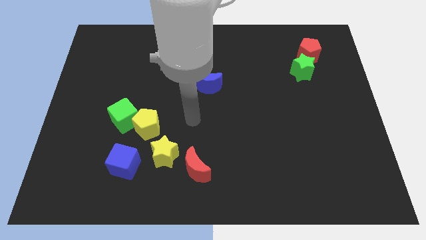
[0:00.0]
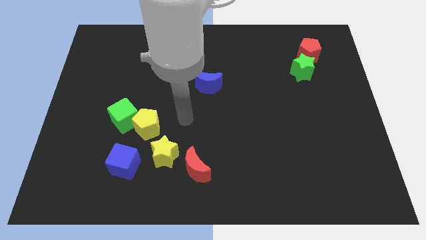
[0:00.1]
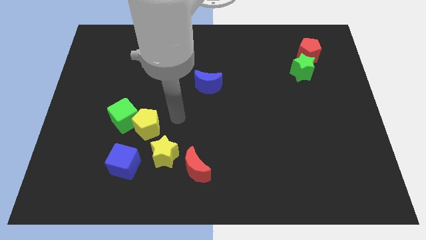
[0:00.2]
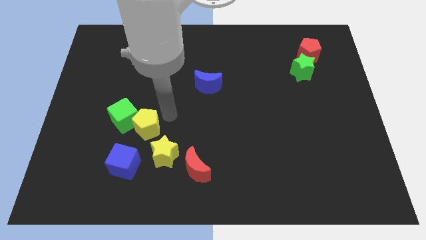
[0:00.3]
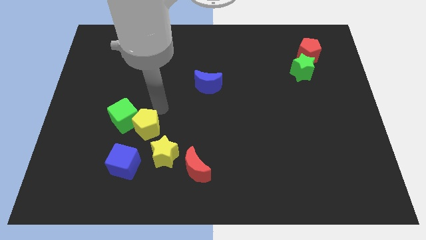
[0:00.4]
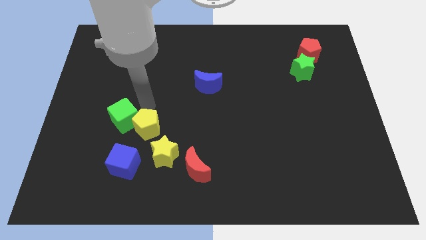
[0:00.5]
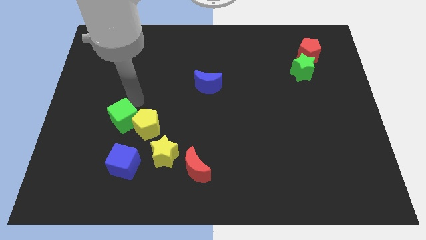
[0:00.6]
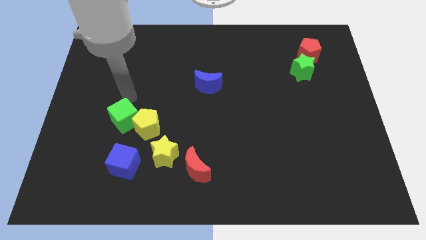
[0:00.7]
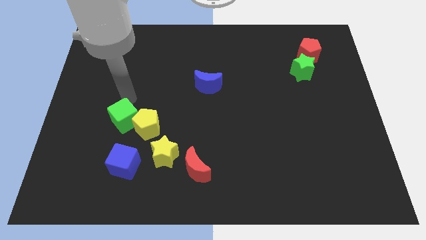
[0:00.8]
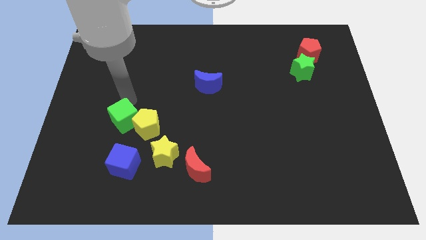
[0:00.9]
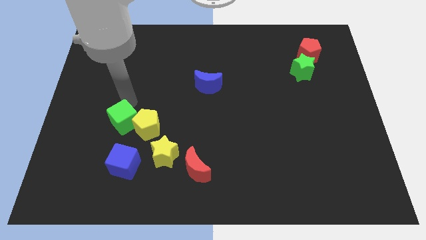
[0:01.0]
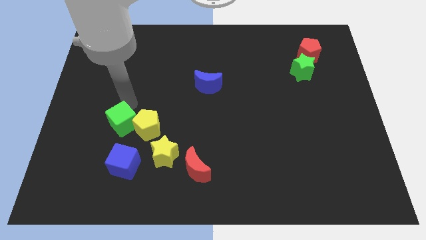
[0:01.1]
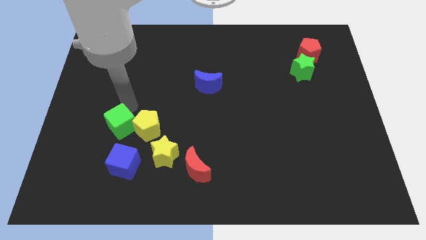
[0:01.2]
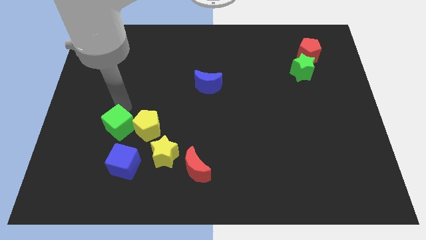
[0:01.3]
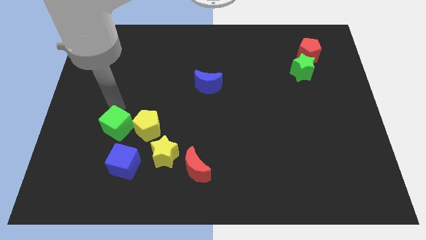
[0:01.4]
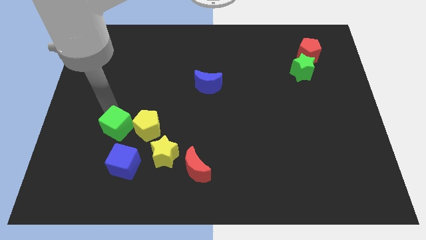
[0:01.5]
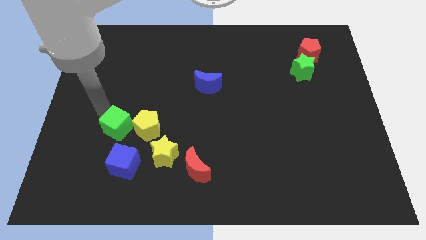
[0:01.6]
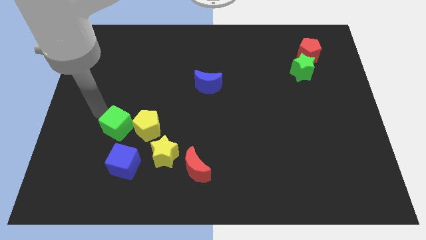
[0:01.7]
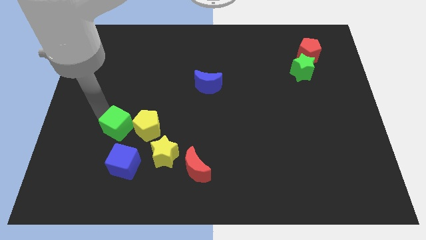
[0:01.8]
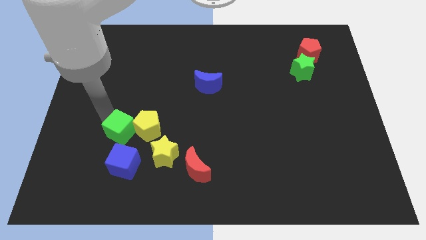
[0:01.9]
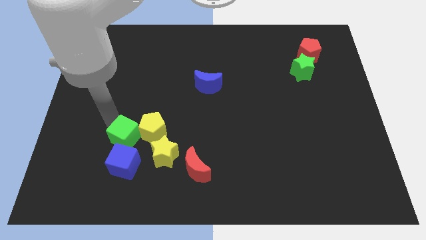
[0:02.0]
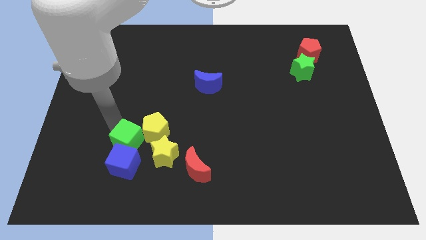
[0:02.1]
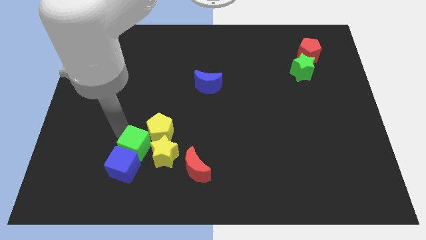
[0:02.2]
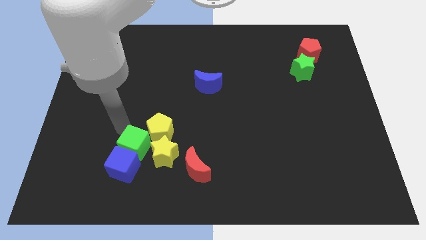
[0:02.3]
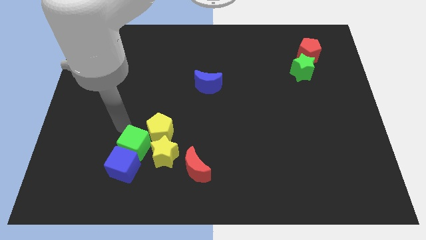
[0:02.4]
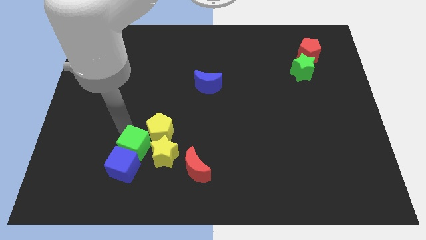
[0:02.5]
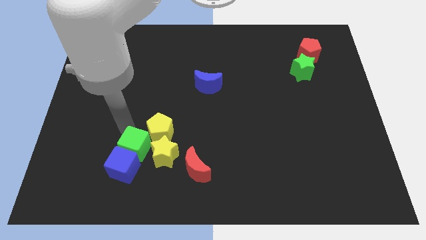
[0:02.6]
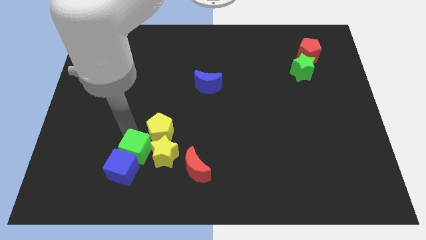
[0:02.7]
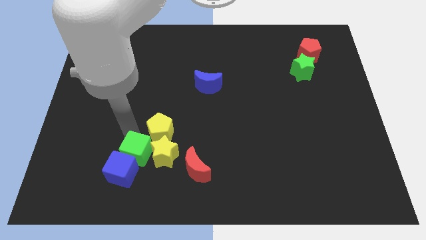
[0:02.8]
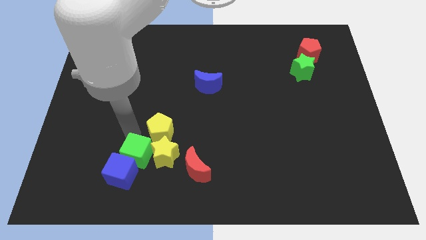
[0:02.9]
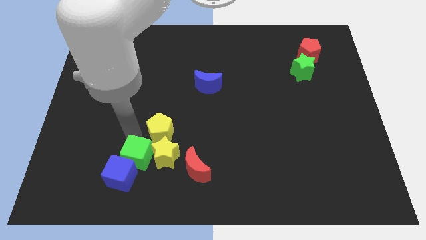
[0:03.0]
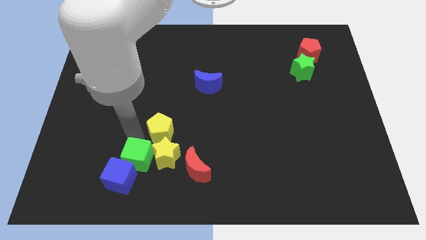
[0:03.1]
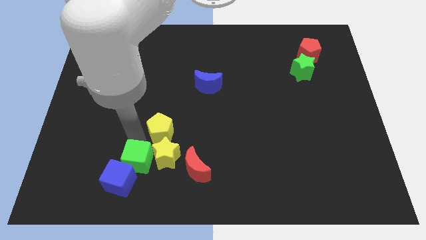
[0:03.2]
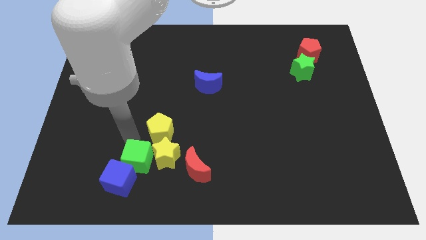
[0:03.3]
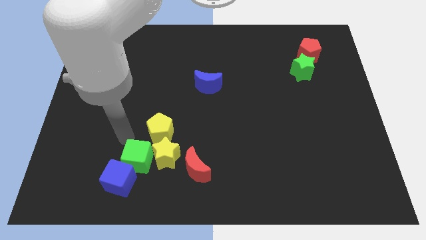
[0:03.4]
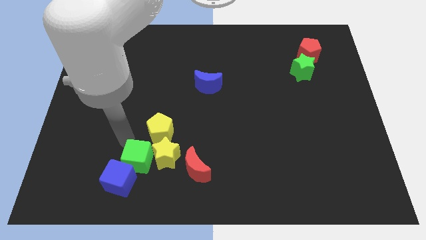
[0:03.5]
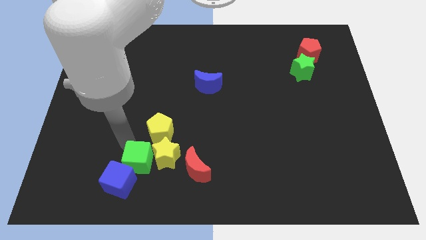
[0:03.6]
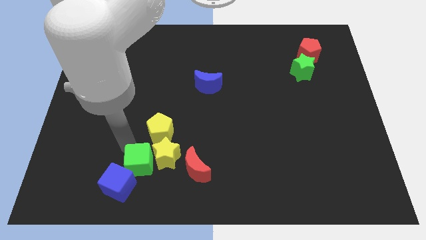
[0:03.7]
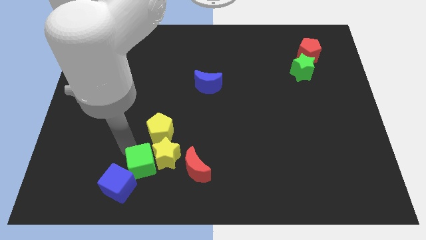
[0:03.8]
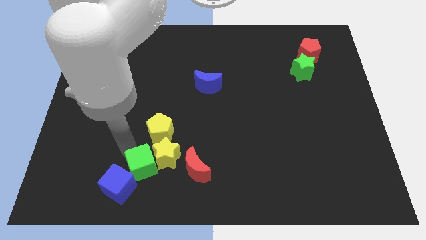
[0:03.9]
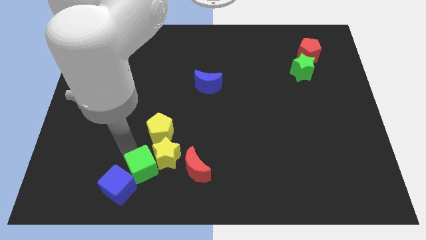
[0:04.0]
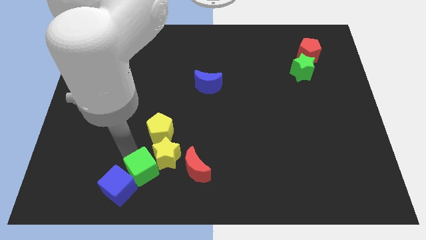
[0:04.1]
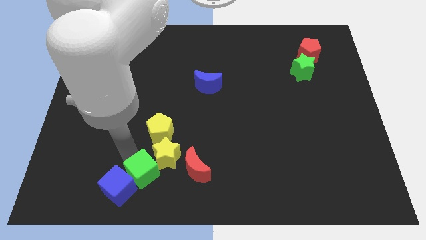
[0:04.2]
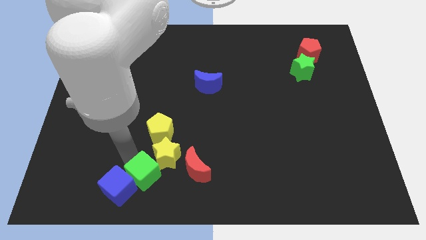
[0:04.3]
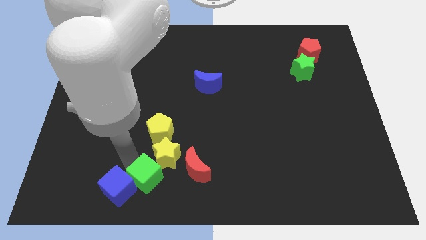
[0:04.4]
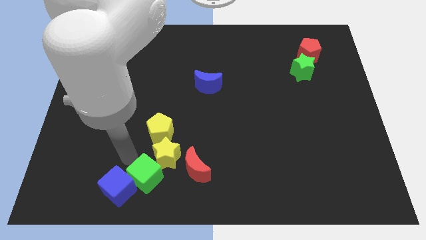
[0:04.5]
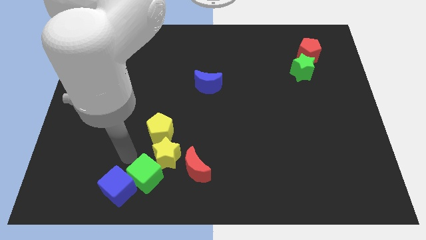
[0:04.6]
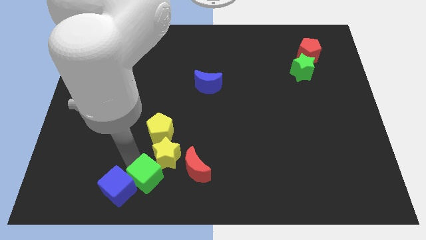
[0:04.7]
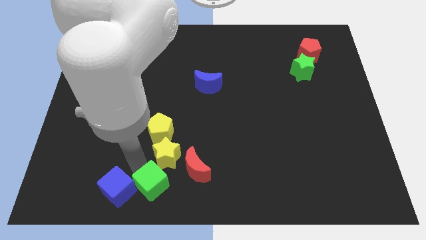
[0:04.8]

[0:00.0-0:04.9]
slide the green cube to the bottom

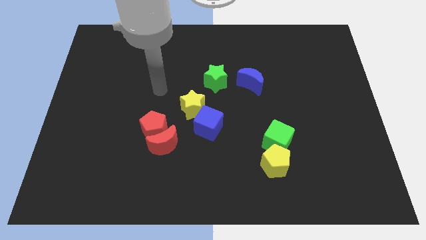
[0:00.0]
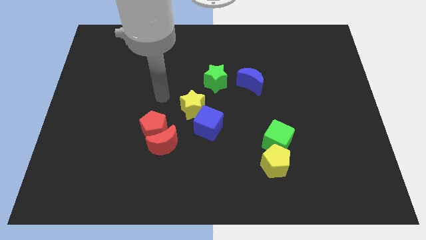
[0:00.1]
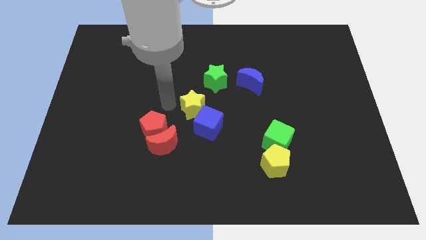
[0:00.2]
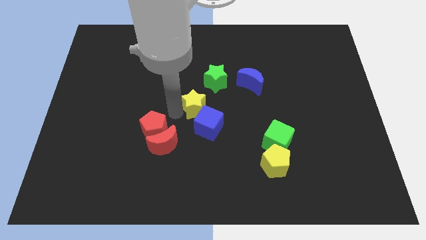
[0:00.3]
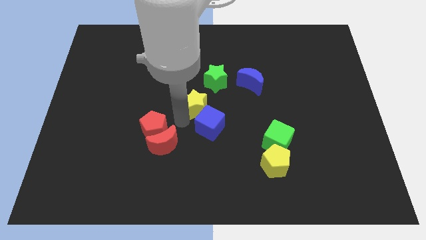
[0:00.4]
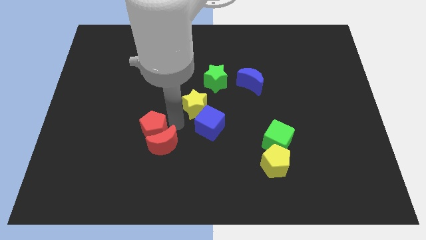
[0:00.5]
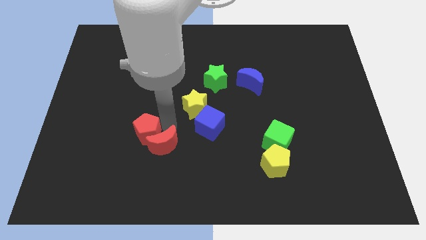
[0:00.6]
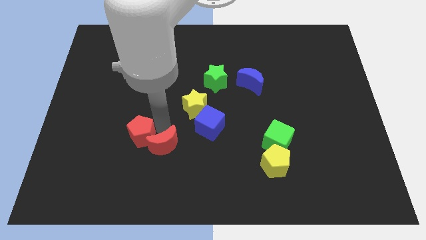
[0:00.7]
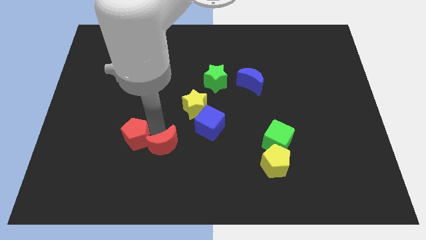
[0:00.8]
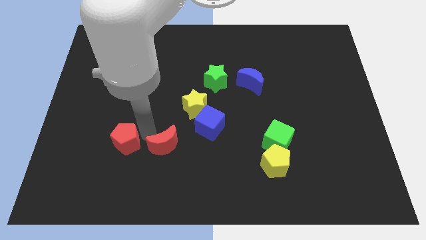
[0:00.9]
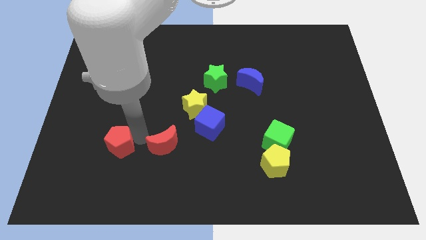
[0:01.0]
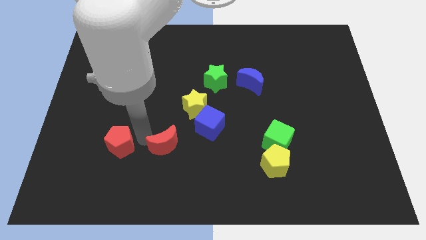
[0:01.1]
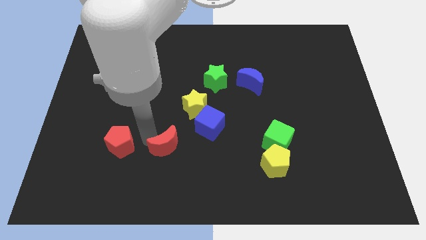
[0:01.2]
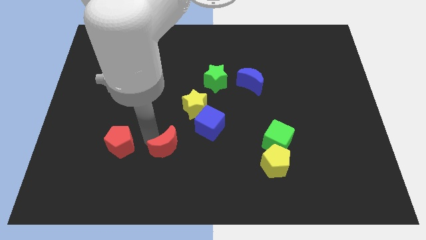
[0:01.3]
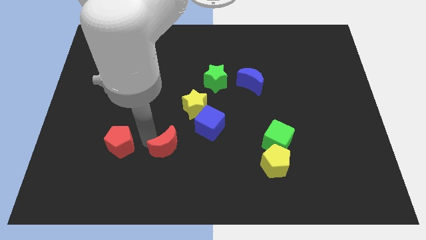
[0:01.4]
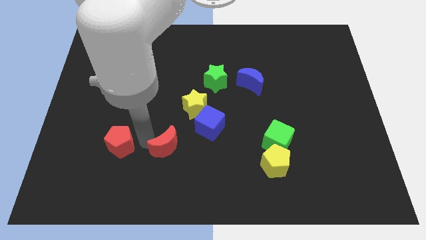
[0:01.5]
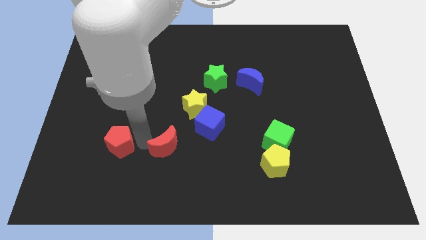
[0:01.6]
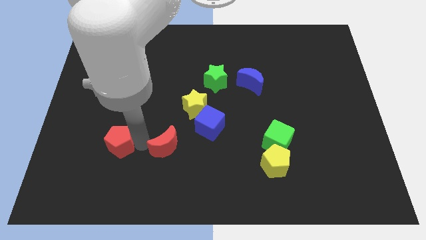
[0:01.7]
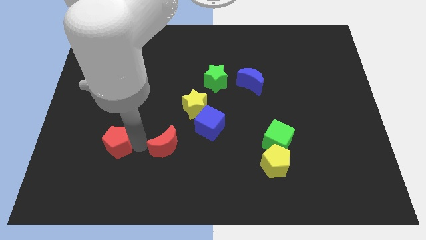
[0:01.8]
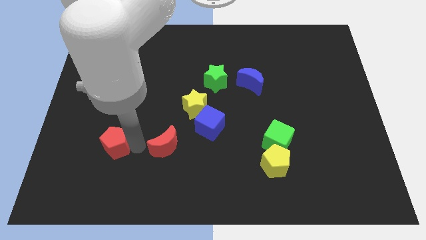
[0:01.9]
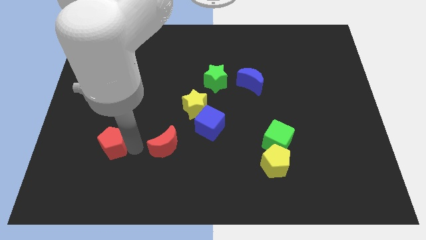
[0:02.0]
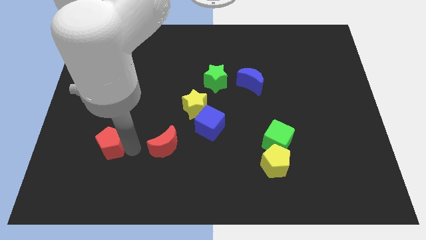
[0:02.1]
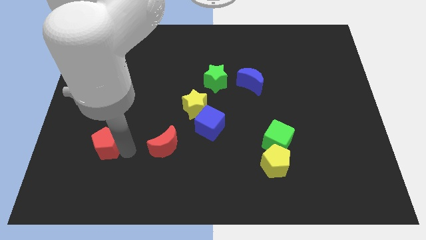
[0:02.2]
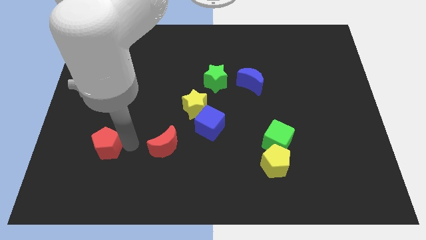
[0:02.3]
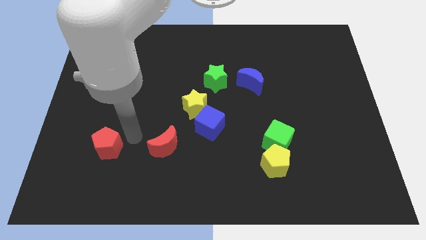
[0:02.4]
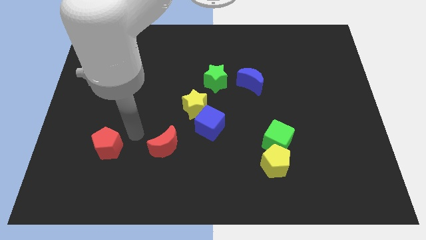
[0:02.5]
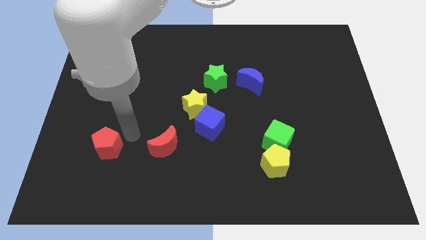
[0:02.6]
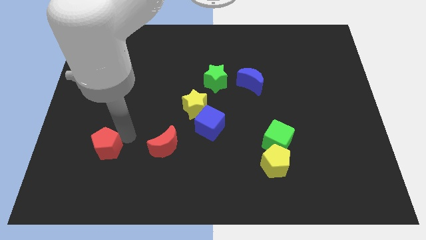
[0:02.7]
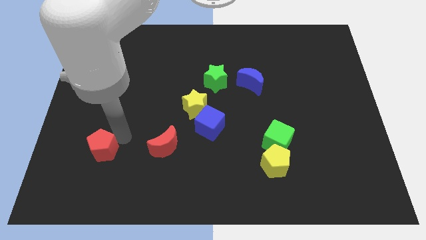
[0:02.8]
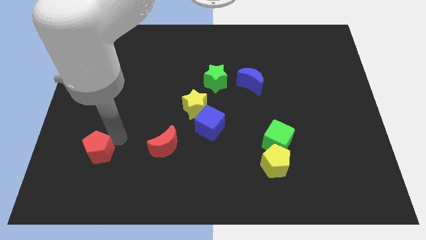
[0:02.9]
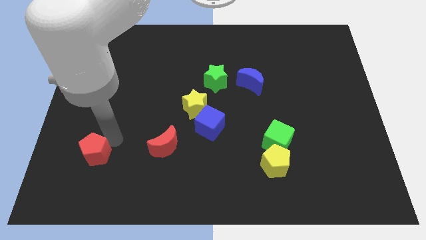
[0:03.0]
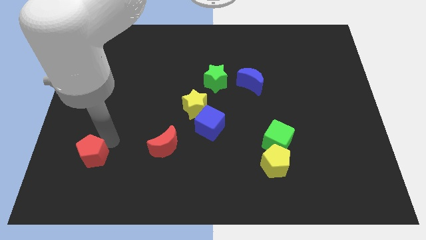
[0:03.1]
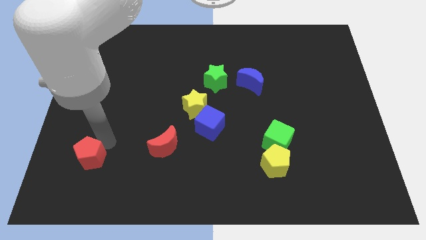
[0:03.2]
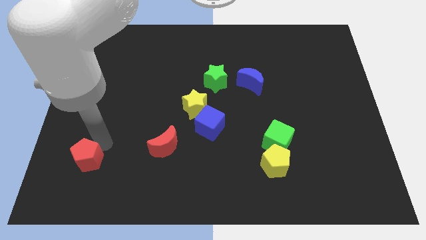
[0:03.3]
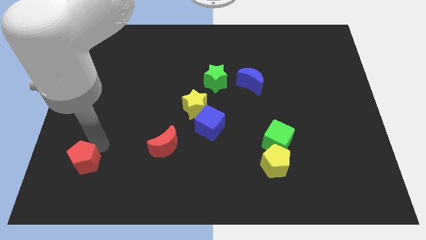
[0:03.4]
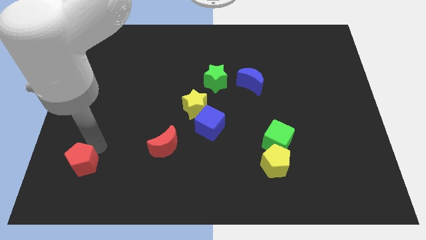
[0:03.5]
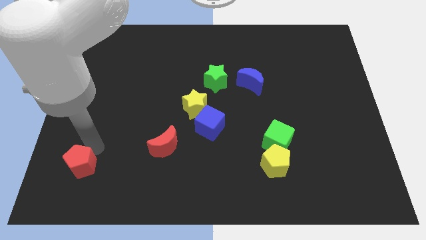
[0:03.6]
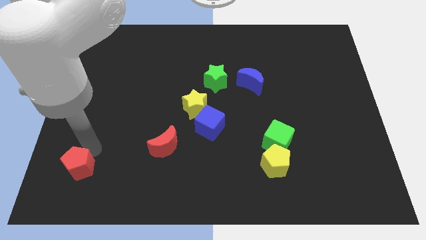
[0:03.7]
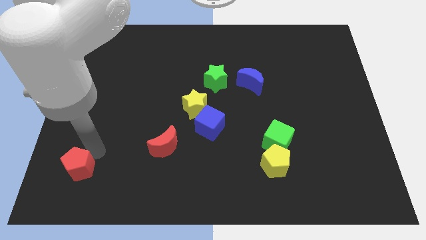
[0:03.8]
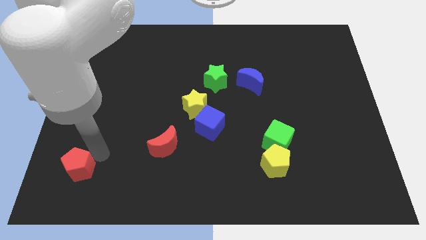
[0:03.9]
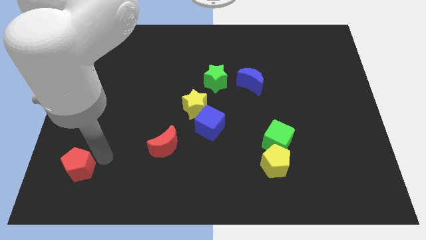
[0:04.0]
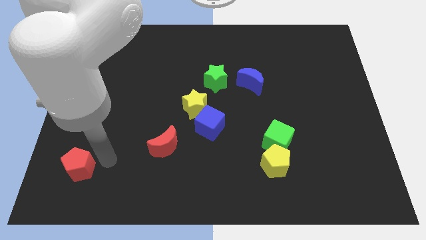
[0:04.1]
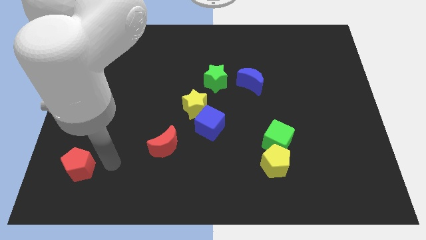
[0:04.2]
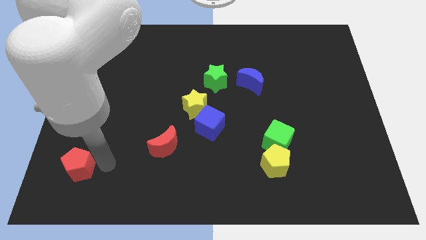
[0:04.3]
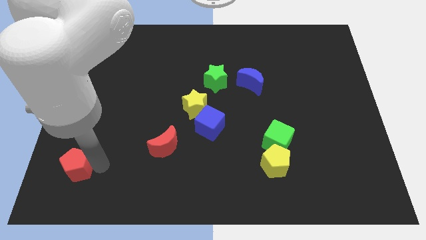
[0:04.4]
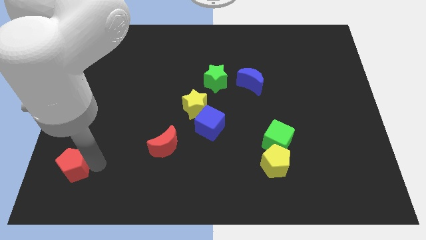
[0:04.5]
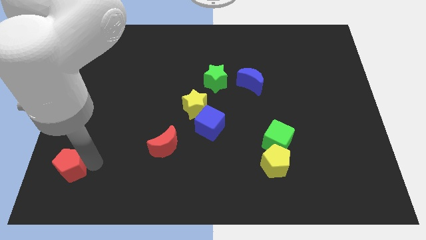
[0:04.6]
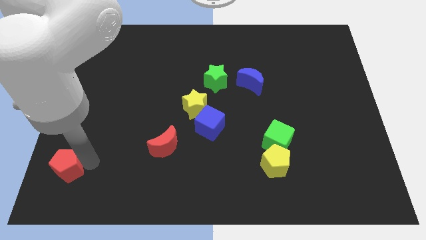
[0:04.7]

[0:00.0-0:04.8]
push the red pentagon to the bottom left corner
